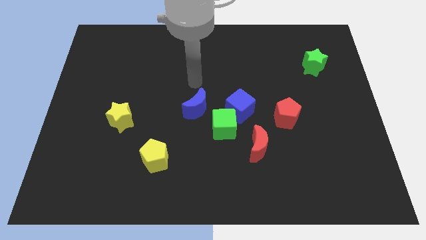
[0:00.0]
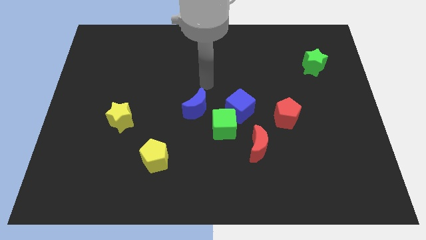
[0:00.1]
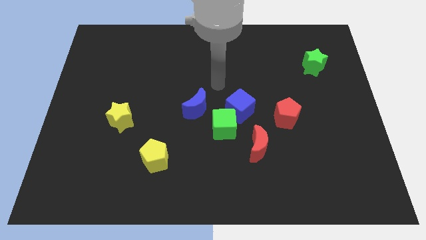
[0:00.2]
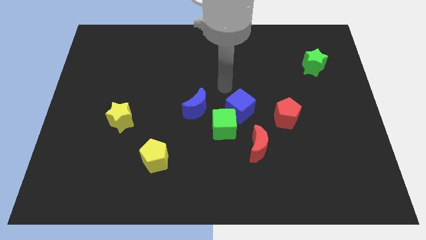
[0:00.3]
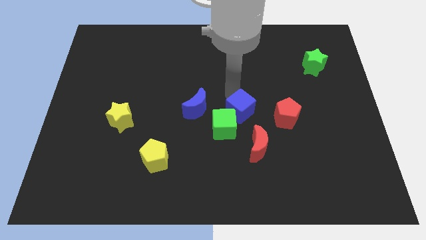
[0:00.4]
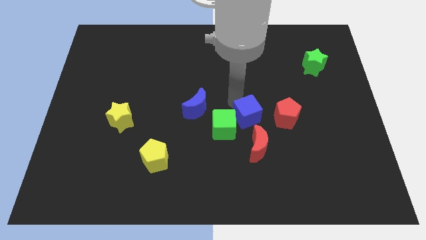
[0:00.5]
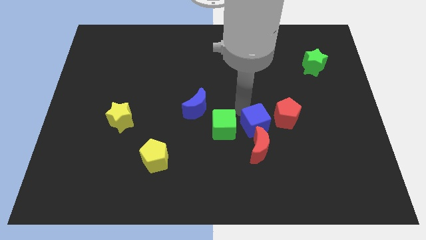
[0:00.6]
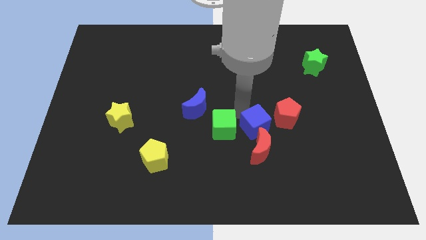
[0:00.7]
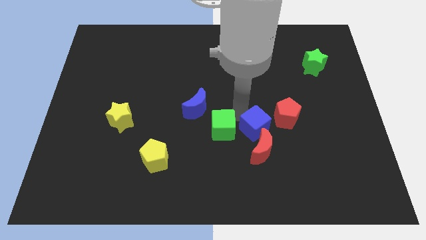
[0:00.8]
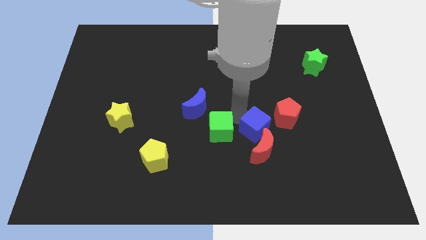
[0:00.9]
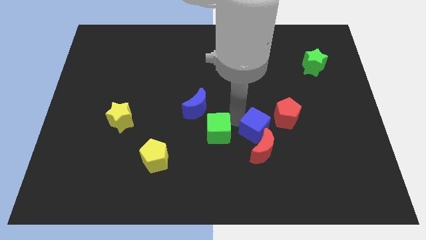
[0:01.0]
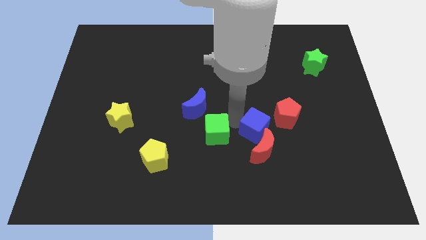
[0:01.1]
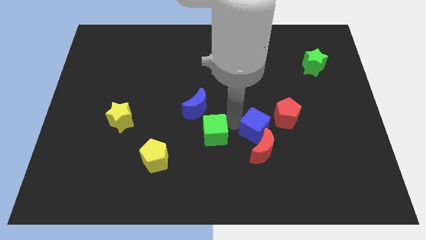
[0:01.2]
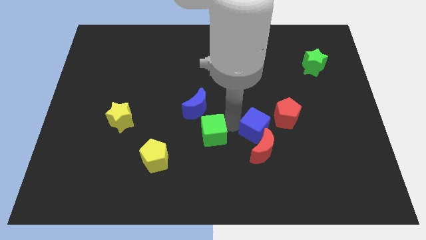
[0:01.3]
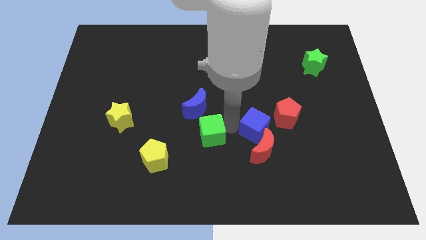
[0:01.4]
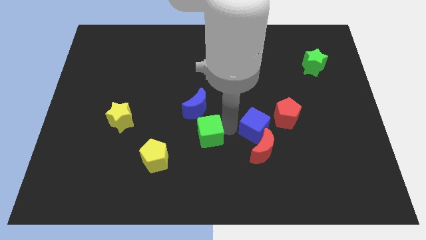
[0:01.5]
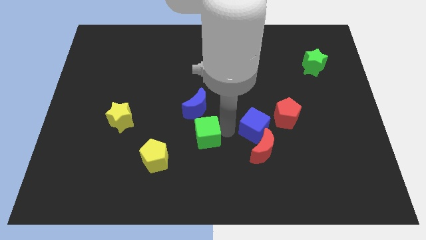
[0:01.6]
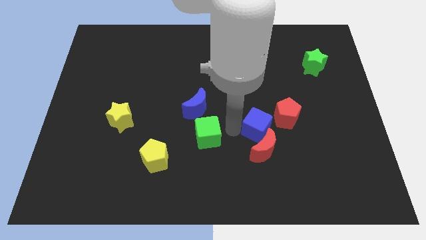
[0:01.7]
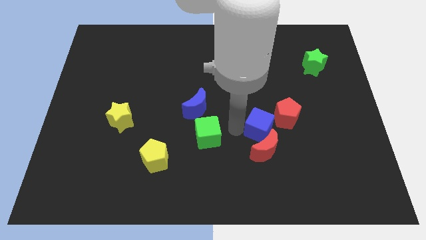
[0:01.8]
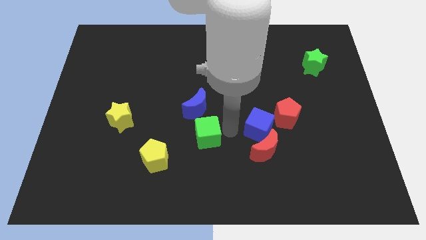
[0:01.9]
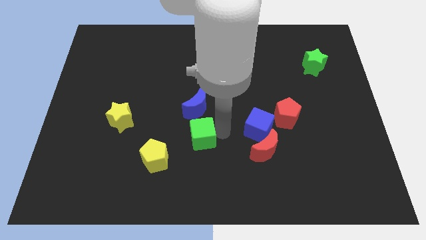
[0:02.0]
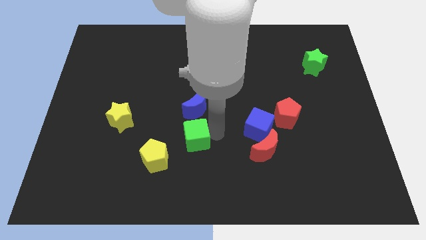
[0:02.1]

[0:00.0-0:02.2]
separate the green cube from the group

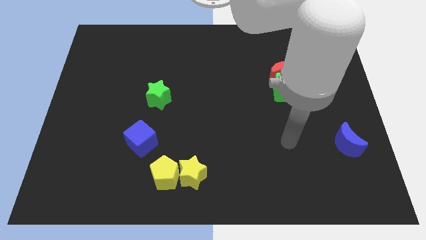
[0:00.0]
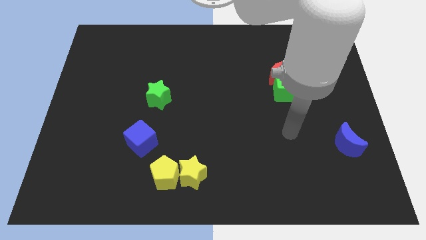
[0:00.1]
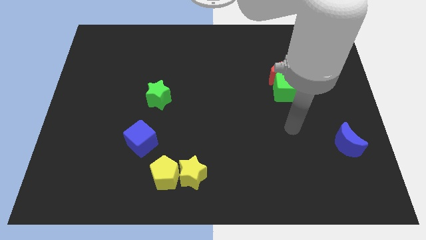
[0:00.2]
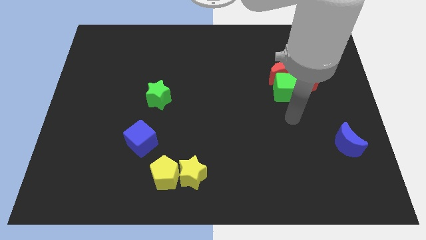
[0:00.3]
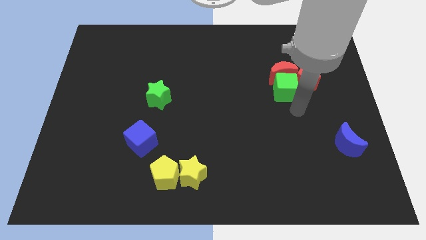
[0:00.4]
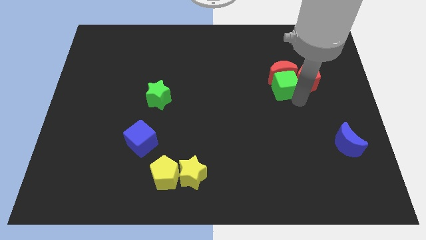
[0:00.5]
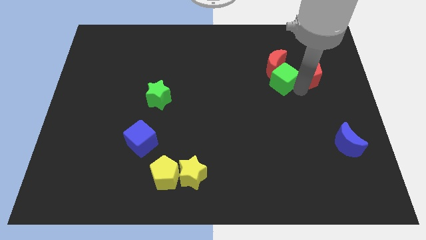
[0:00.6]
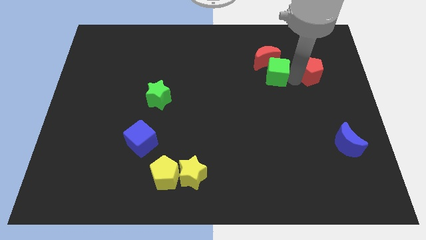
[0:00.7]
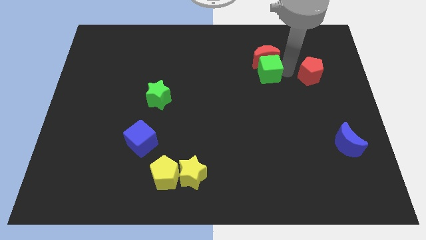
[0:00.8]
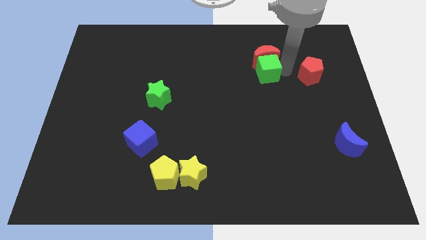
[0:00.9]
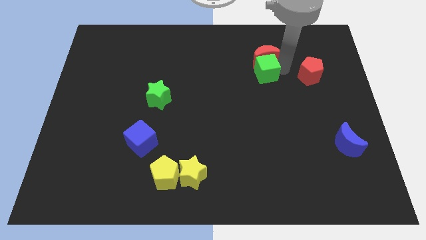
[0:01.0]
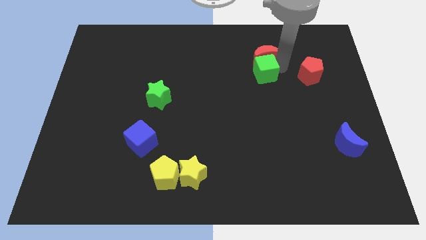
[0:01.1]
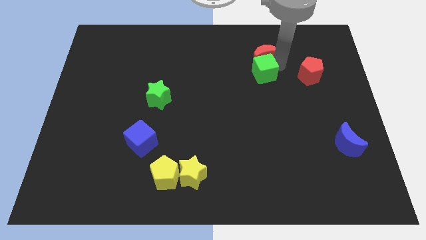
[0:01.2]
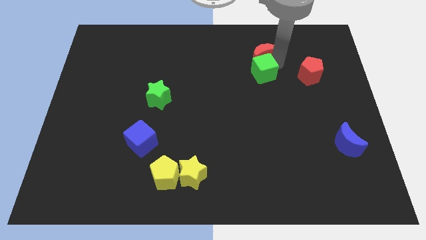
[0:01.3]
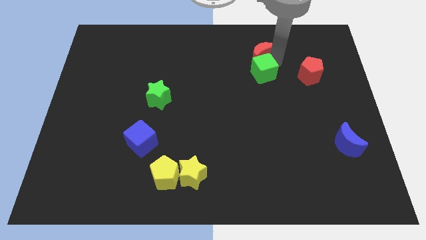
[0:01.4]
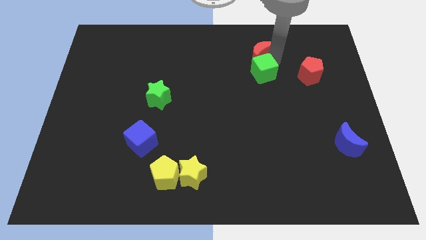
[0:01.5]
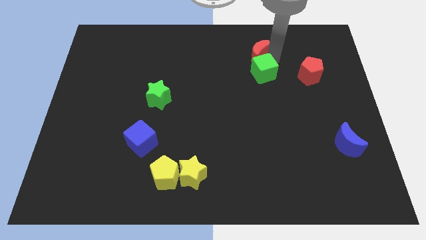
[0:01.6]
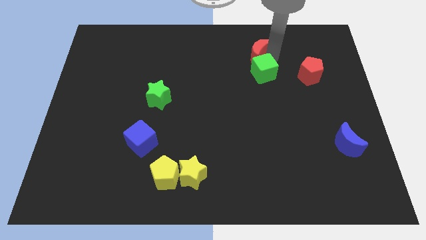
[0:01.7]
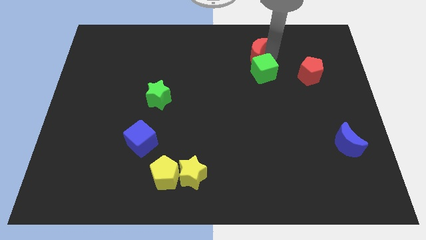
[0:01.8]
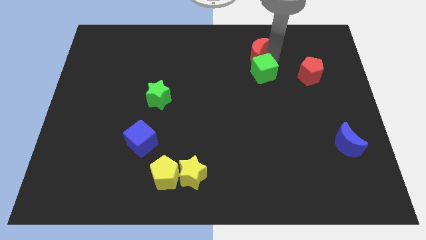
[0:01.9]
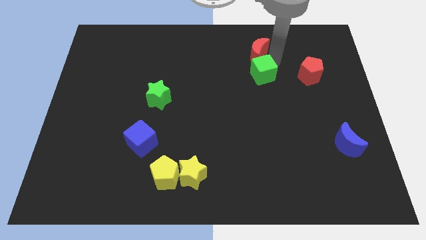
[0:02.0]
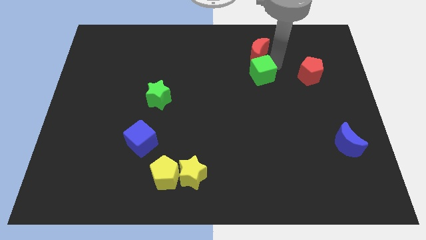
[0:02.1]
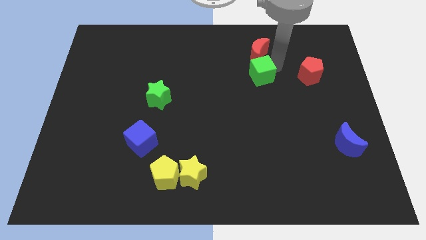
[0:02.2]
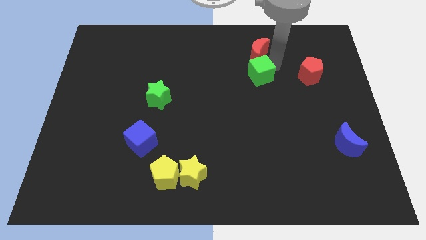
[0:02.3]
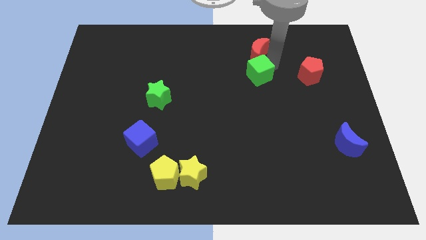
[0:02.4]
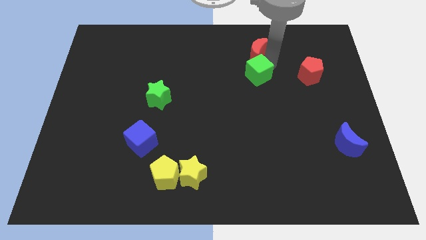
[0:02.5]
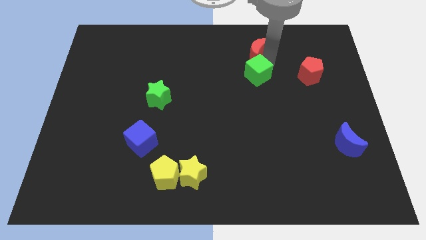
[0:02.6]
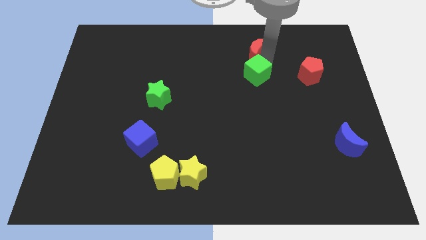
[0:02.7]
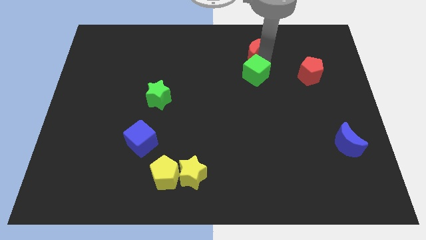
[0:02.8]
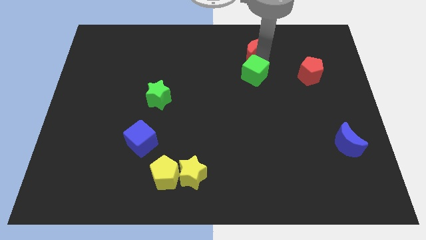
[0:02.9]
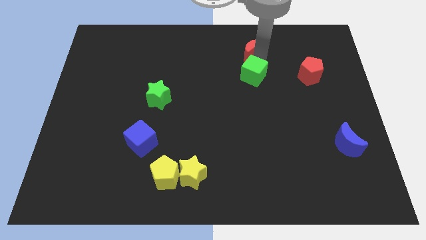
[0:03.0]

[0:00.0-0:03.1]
separate the red moon from the green cube and red pentagon

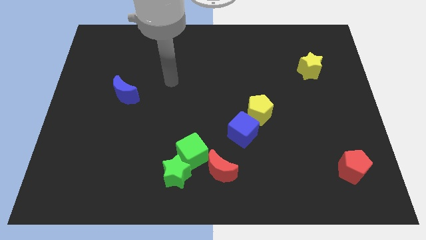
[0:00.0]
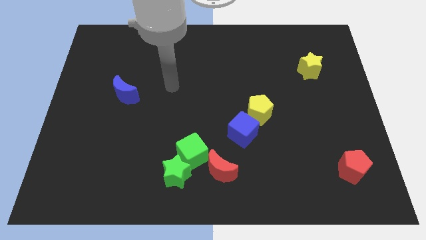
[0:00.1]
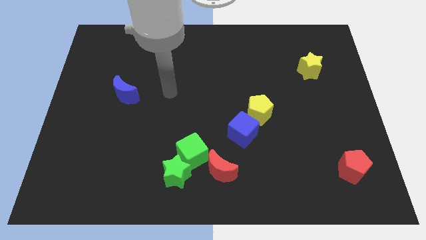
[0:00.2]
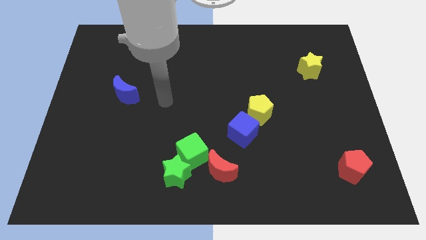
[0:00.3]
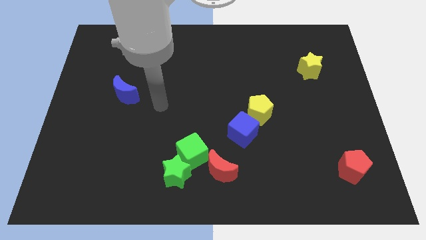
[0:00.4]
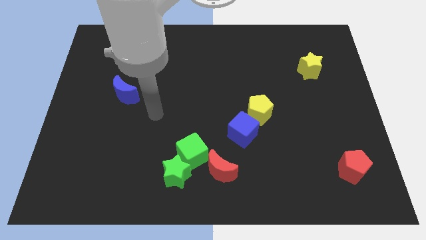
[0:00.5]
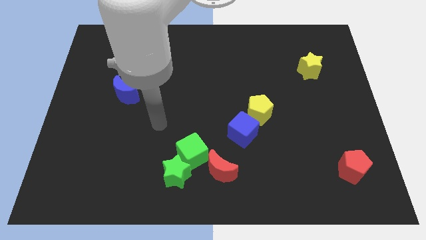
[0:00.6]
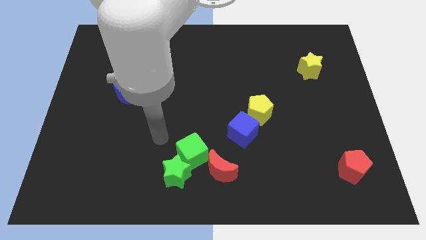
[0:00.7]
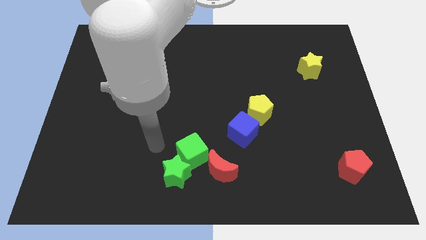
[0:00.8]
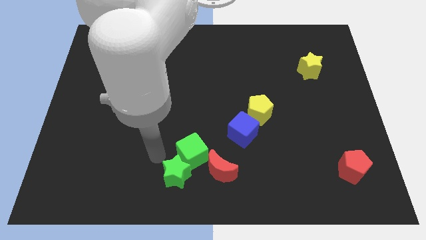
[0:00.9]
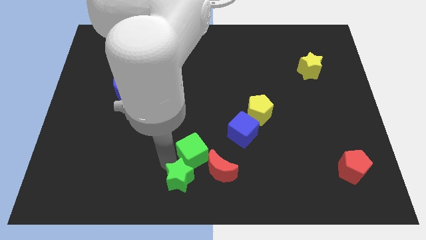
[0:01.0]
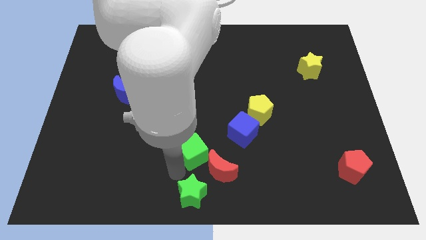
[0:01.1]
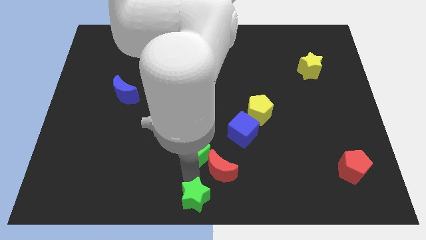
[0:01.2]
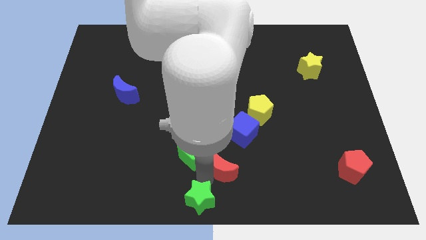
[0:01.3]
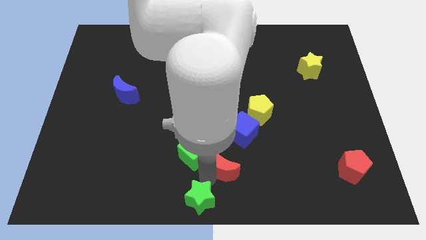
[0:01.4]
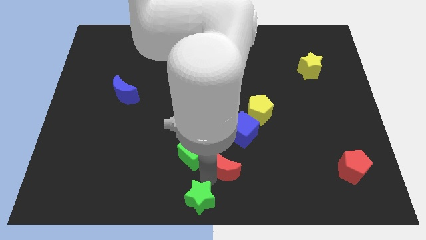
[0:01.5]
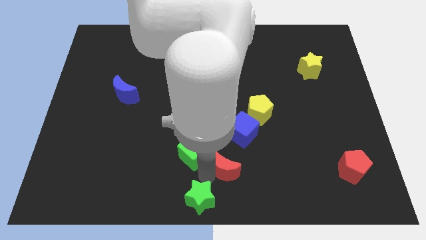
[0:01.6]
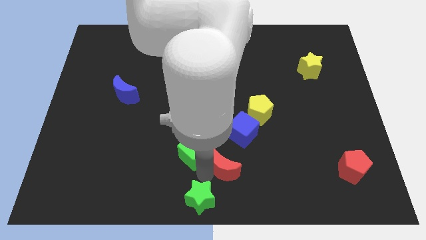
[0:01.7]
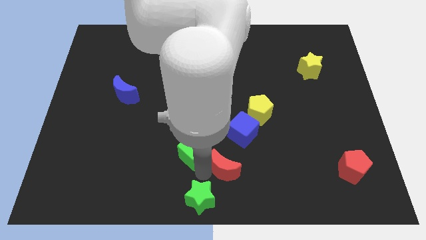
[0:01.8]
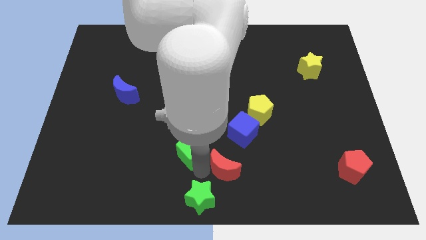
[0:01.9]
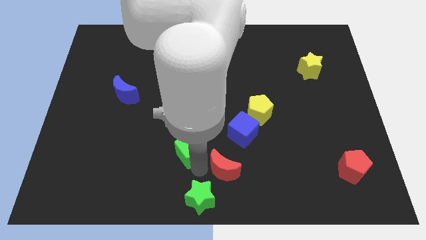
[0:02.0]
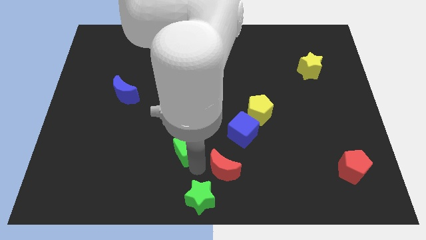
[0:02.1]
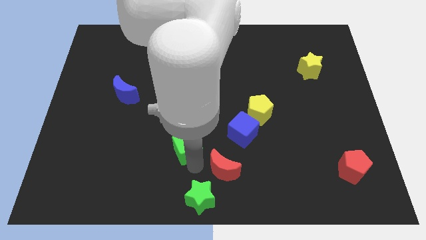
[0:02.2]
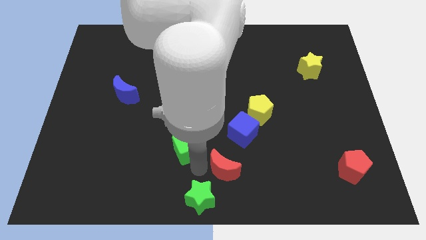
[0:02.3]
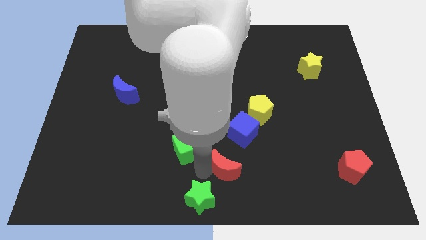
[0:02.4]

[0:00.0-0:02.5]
pull the green cube apart from the green star and red moon

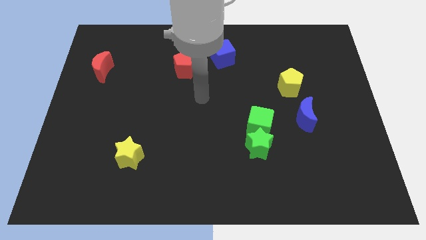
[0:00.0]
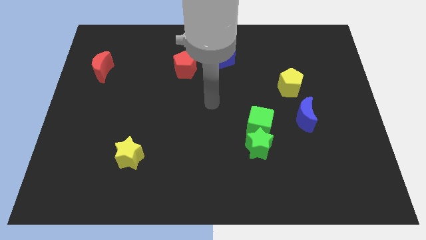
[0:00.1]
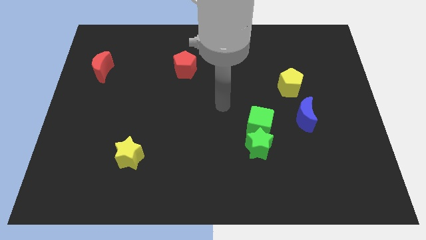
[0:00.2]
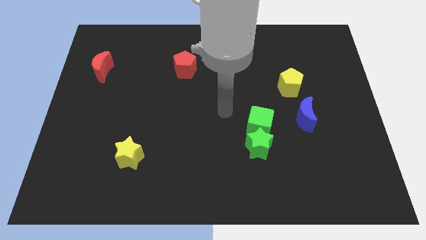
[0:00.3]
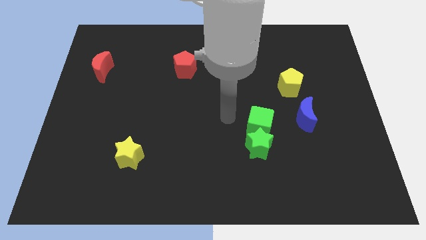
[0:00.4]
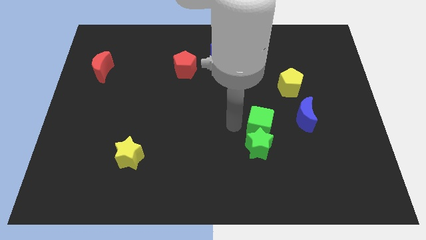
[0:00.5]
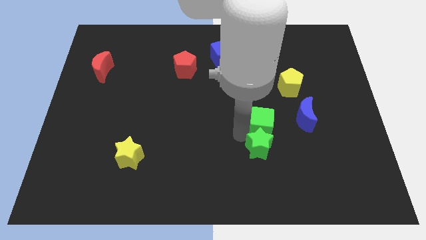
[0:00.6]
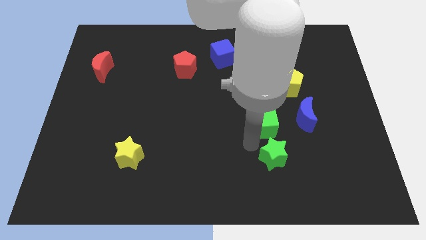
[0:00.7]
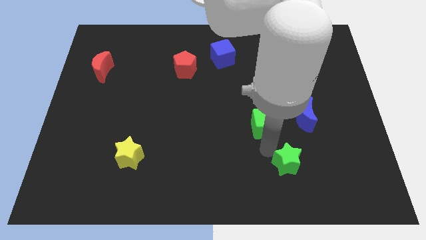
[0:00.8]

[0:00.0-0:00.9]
pull the green cube apart from the green star

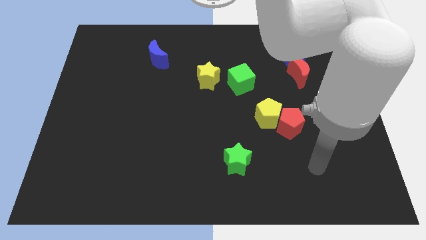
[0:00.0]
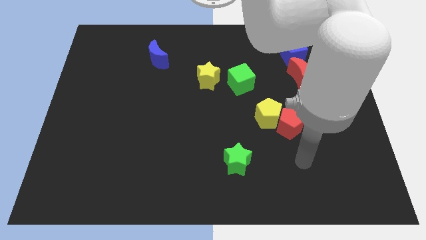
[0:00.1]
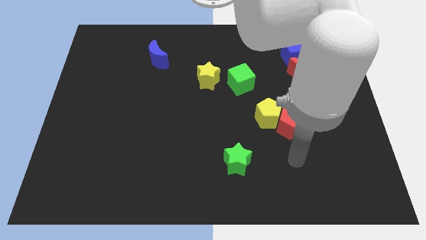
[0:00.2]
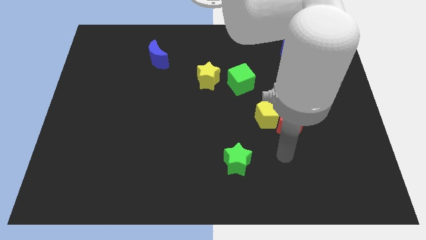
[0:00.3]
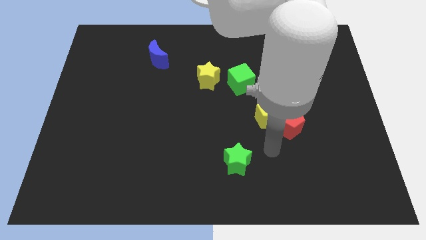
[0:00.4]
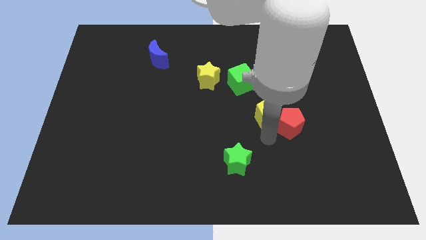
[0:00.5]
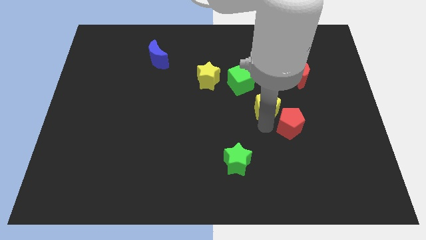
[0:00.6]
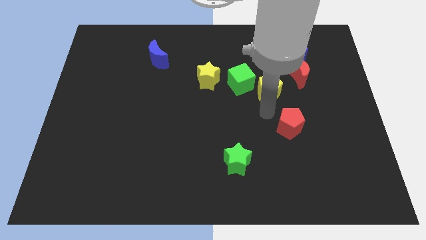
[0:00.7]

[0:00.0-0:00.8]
pull the red pentagon apart from the yellow pentagon
